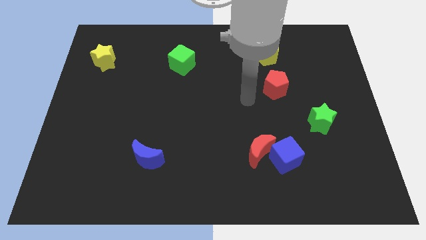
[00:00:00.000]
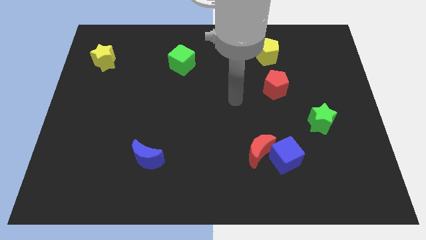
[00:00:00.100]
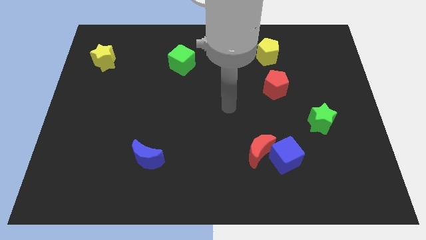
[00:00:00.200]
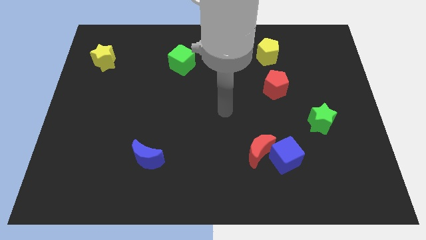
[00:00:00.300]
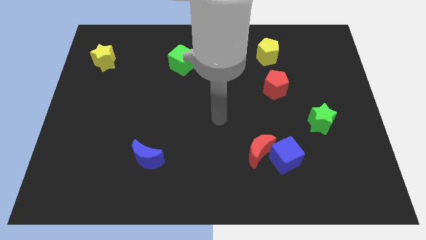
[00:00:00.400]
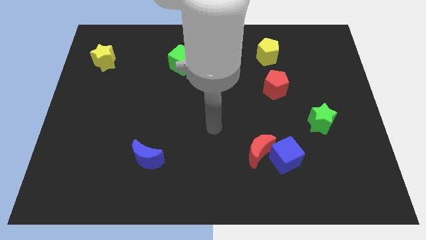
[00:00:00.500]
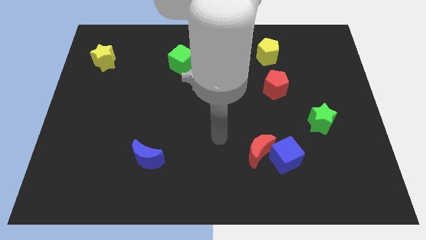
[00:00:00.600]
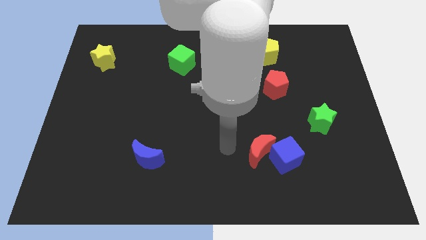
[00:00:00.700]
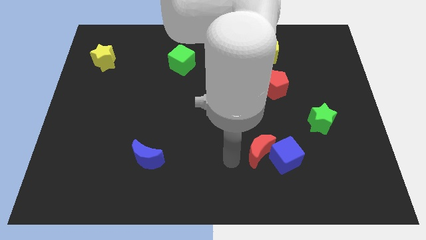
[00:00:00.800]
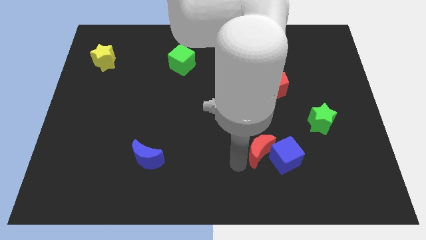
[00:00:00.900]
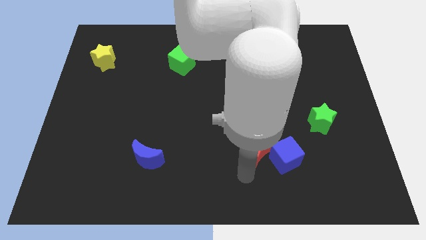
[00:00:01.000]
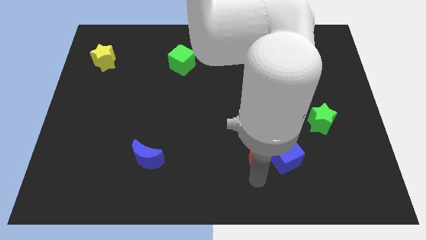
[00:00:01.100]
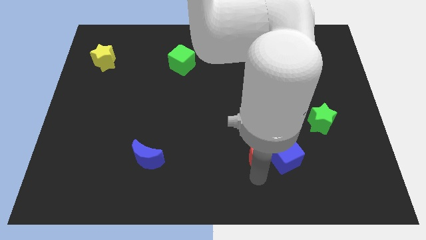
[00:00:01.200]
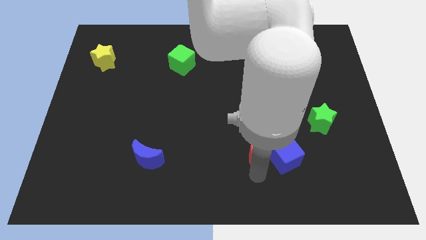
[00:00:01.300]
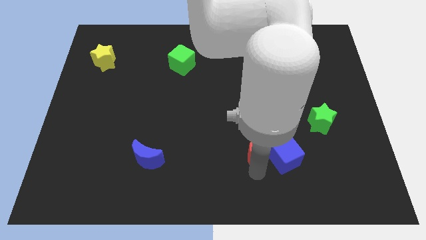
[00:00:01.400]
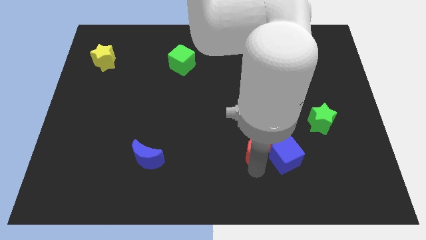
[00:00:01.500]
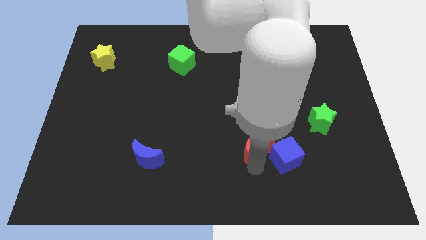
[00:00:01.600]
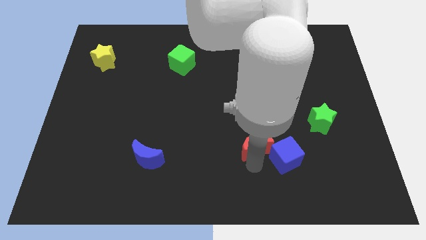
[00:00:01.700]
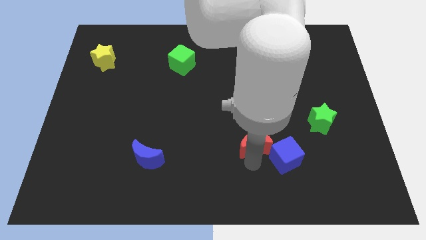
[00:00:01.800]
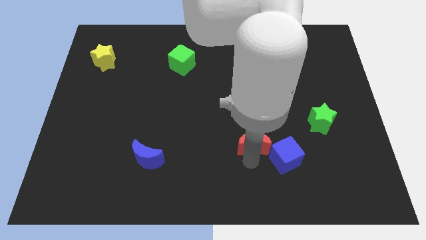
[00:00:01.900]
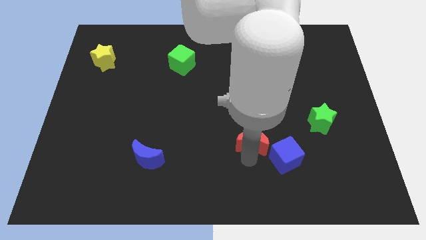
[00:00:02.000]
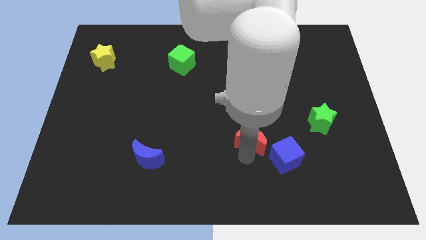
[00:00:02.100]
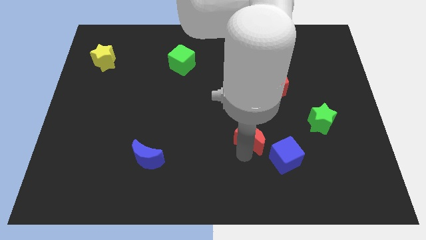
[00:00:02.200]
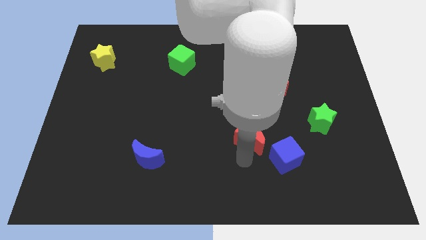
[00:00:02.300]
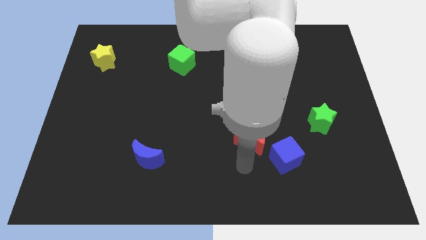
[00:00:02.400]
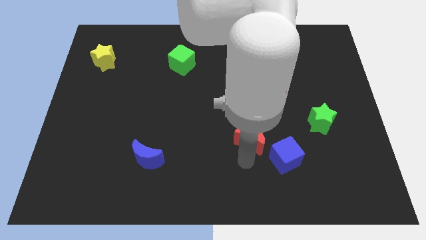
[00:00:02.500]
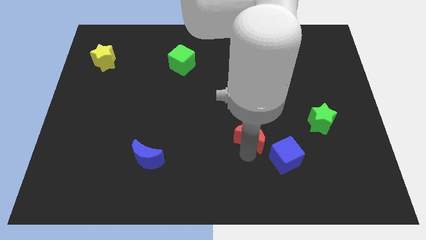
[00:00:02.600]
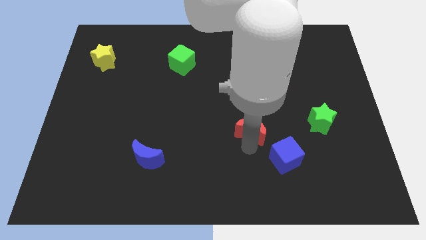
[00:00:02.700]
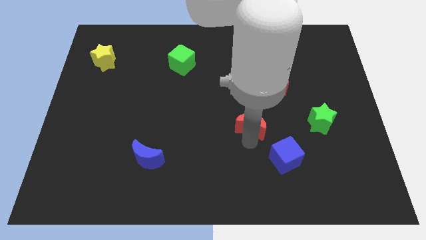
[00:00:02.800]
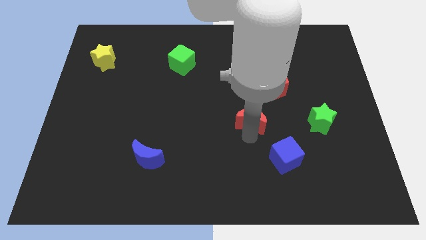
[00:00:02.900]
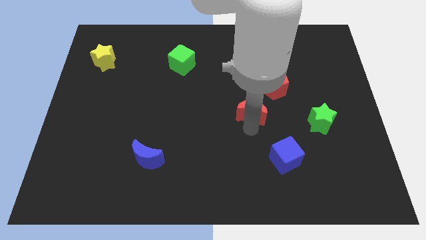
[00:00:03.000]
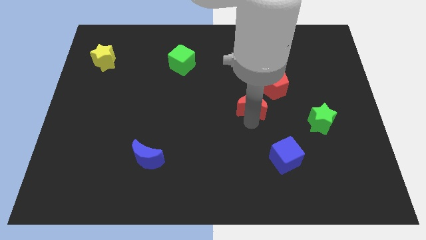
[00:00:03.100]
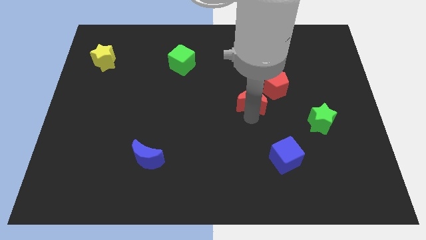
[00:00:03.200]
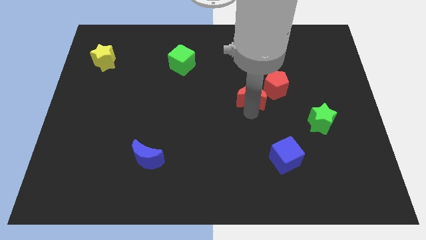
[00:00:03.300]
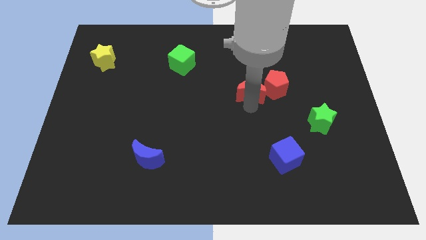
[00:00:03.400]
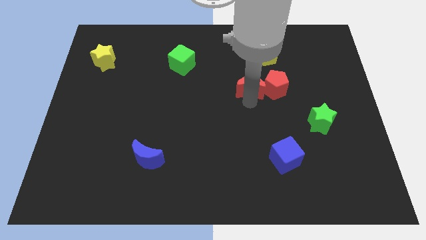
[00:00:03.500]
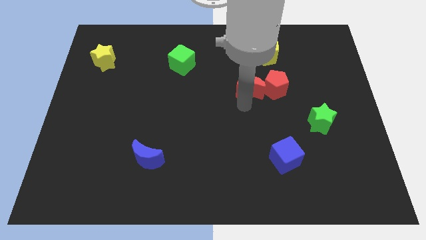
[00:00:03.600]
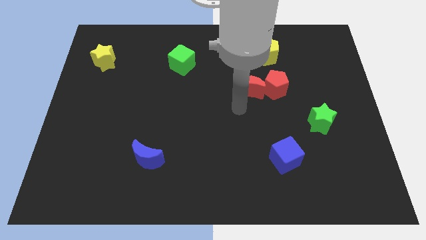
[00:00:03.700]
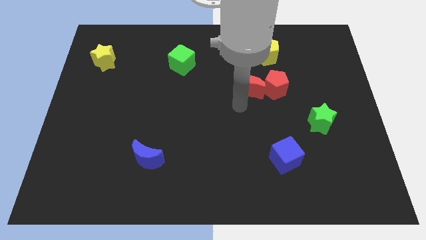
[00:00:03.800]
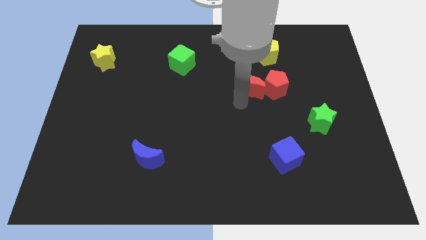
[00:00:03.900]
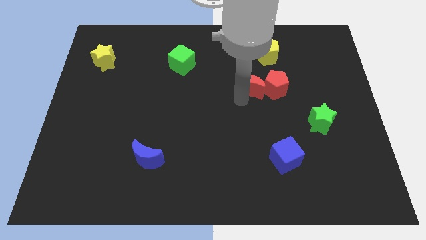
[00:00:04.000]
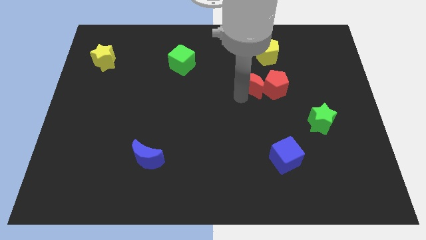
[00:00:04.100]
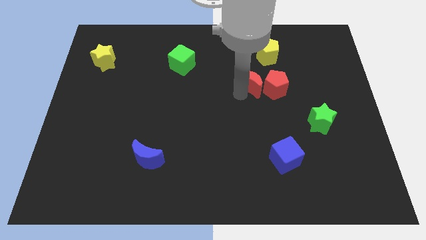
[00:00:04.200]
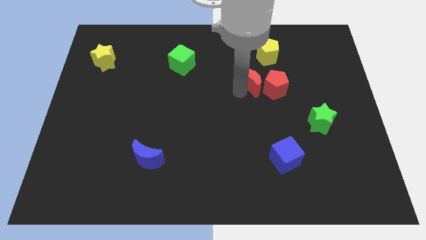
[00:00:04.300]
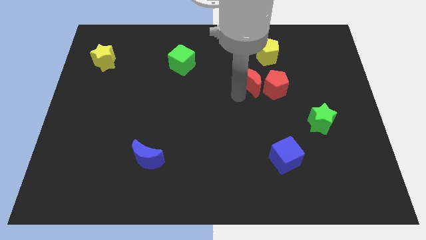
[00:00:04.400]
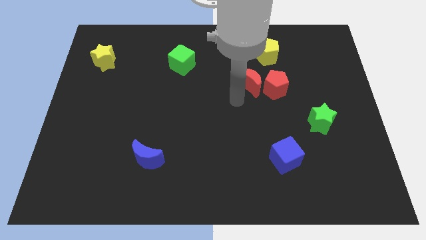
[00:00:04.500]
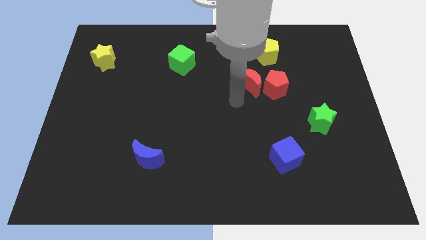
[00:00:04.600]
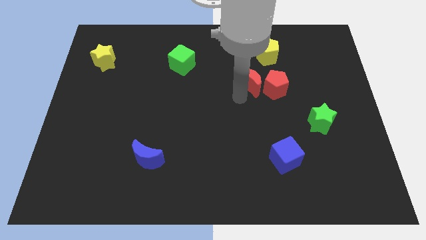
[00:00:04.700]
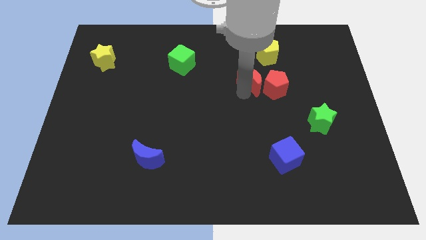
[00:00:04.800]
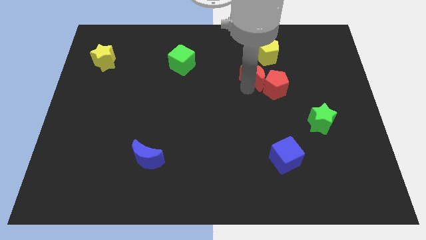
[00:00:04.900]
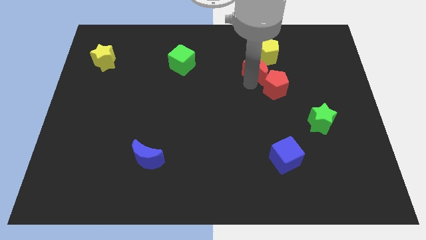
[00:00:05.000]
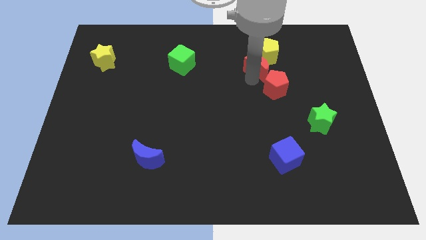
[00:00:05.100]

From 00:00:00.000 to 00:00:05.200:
put the red moon to the yellow pentagon

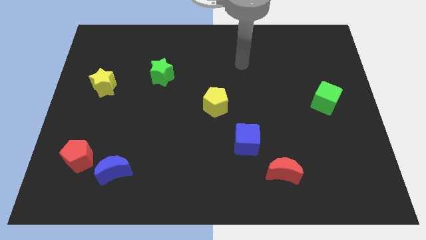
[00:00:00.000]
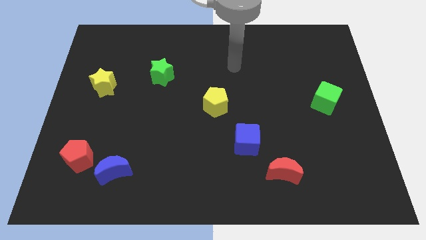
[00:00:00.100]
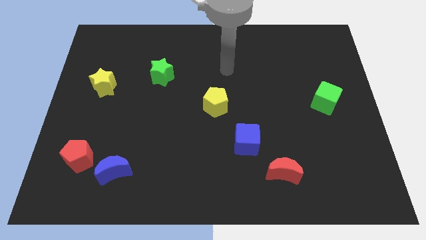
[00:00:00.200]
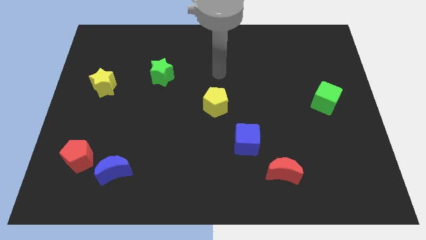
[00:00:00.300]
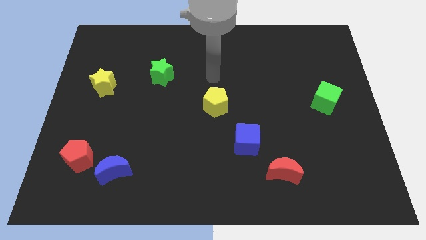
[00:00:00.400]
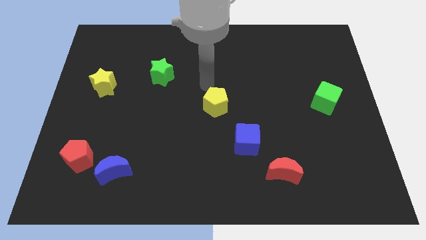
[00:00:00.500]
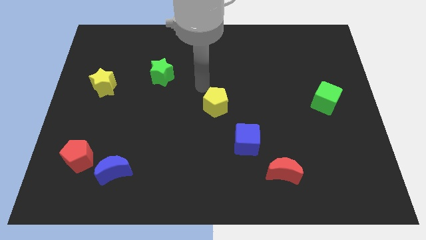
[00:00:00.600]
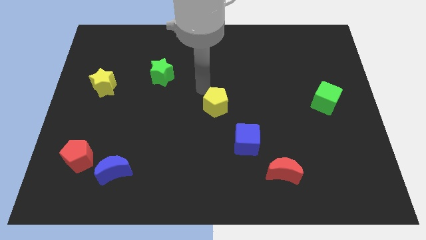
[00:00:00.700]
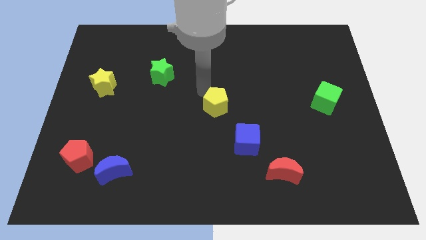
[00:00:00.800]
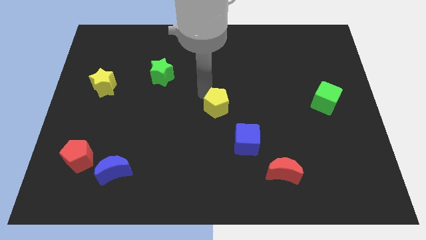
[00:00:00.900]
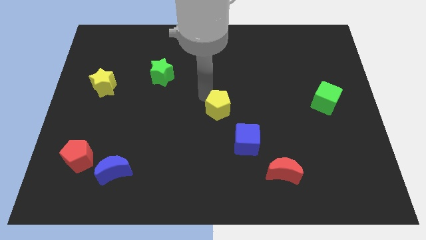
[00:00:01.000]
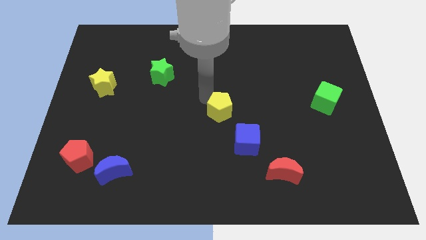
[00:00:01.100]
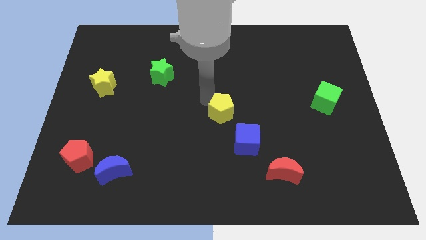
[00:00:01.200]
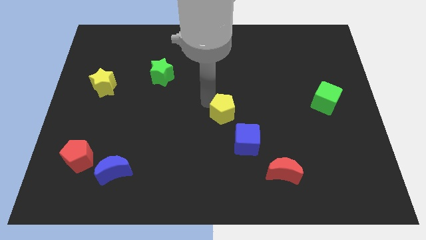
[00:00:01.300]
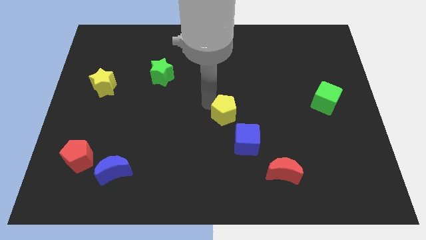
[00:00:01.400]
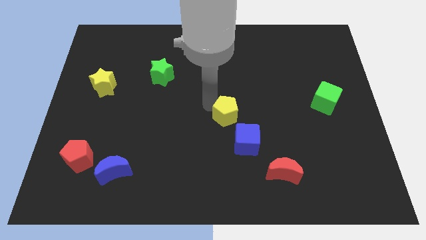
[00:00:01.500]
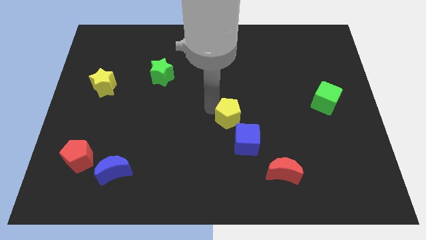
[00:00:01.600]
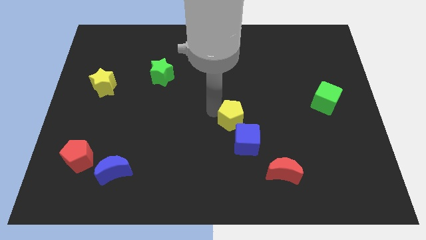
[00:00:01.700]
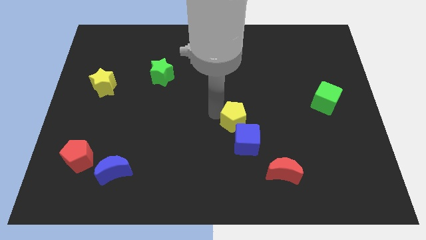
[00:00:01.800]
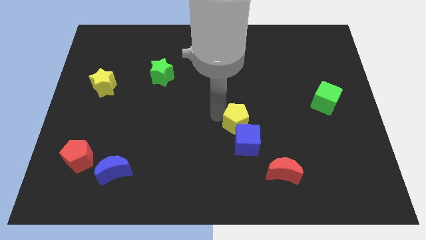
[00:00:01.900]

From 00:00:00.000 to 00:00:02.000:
push the yellow pentagon close to the blue cube

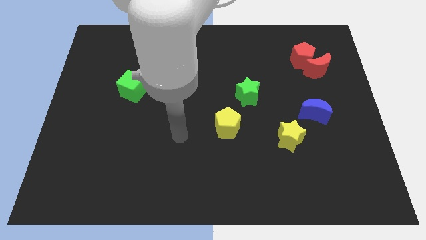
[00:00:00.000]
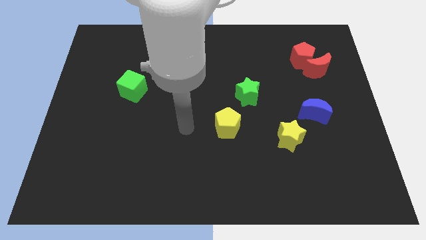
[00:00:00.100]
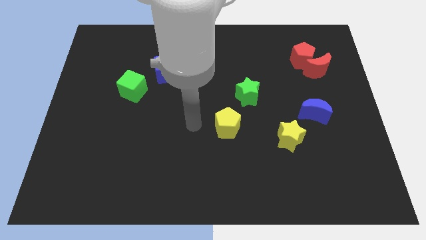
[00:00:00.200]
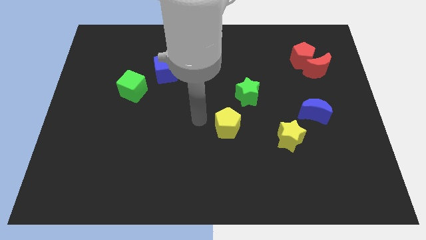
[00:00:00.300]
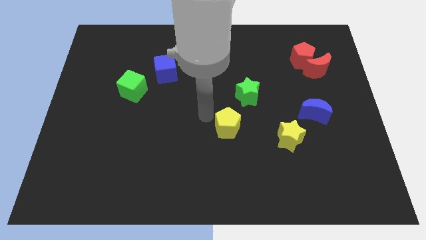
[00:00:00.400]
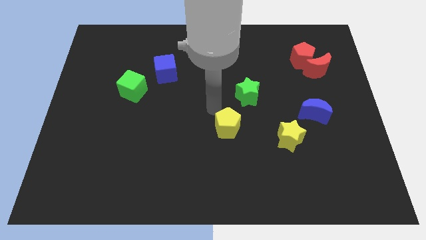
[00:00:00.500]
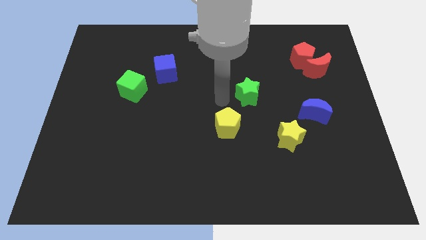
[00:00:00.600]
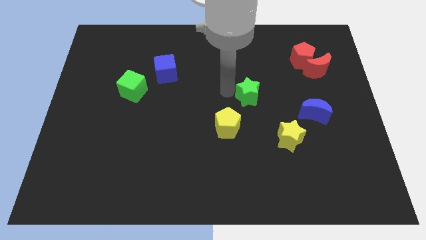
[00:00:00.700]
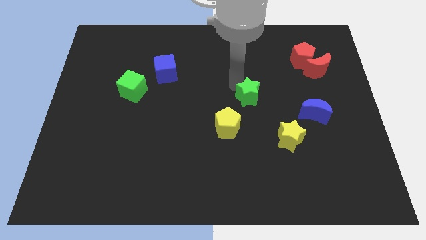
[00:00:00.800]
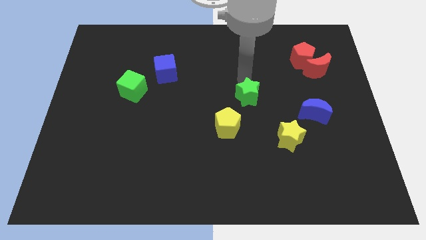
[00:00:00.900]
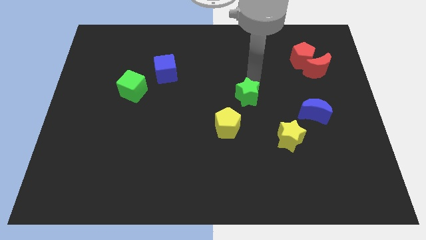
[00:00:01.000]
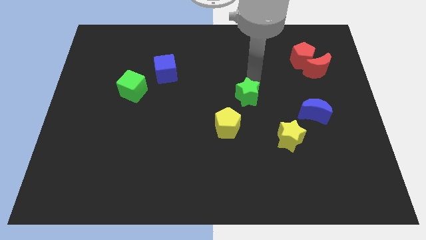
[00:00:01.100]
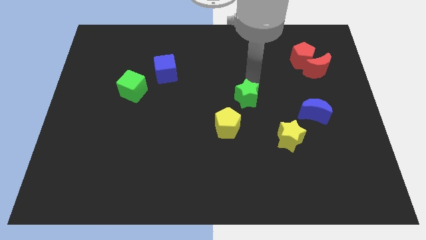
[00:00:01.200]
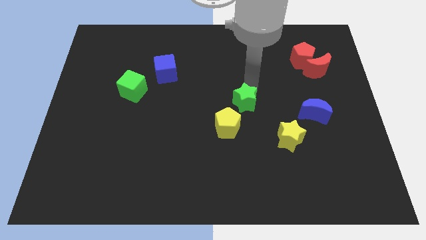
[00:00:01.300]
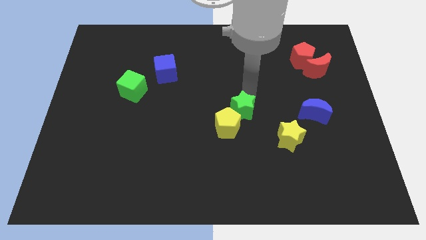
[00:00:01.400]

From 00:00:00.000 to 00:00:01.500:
put the green star close to the yellow pentagon
